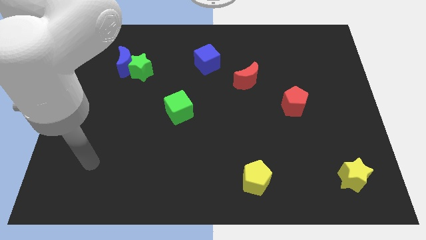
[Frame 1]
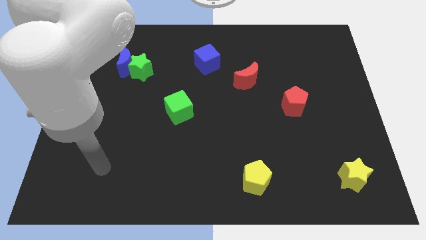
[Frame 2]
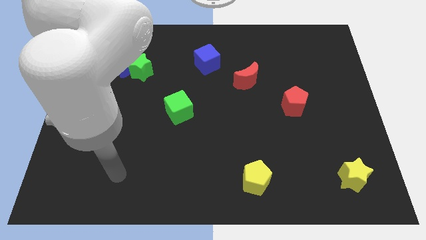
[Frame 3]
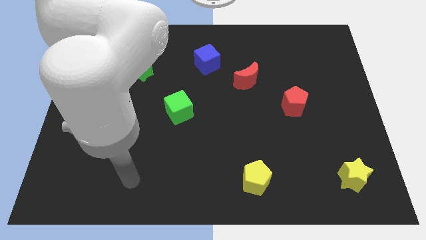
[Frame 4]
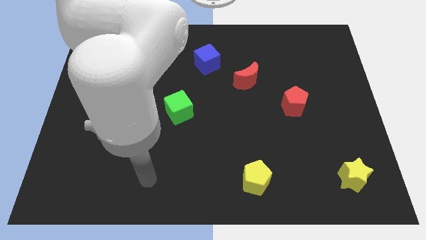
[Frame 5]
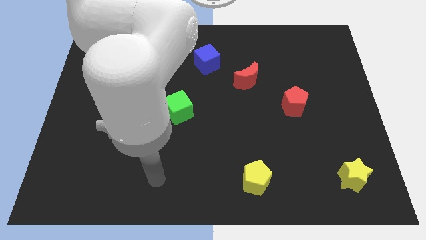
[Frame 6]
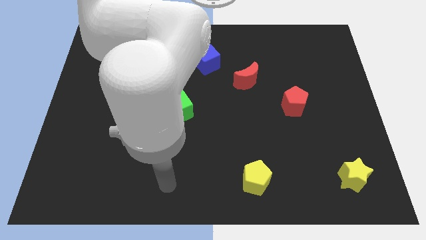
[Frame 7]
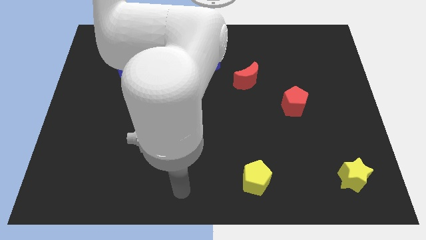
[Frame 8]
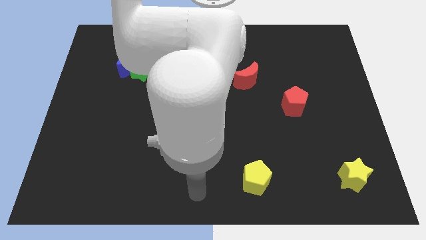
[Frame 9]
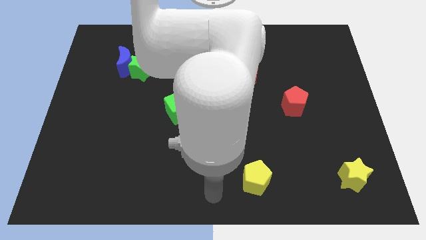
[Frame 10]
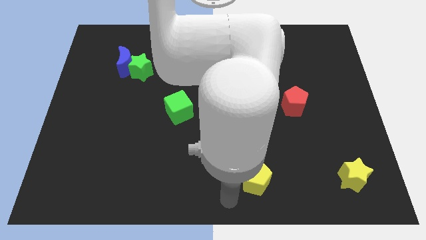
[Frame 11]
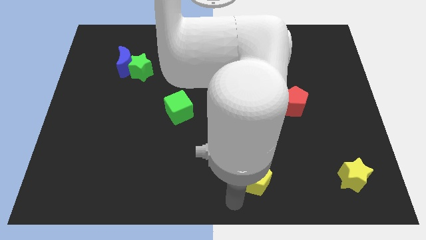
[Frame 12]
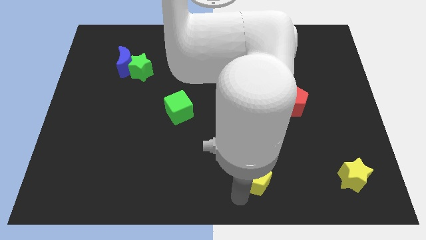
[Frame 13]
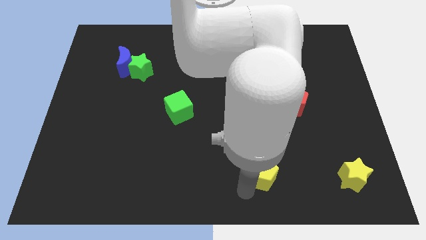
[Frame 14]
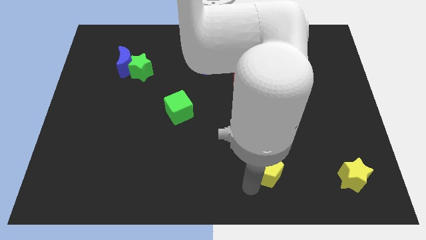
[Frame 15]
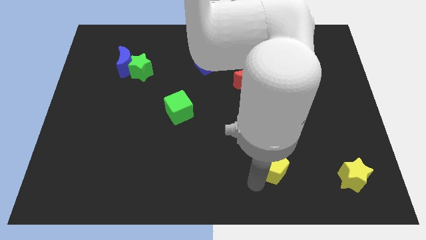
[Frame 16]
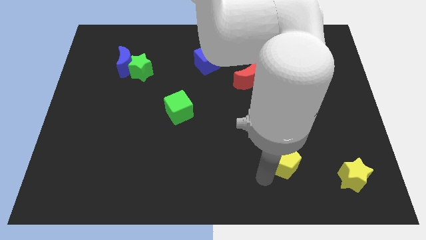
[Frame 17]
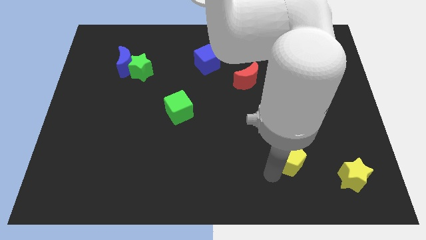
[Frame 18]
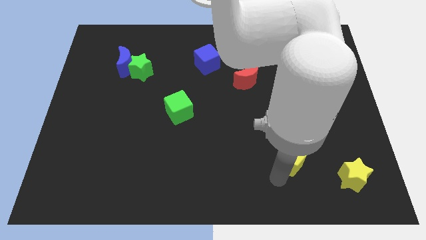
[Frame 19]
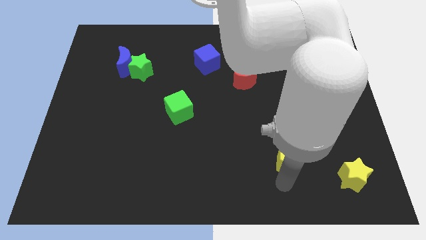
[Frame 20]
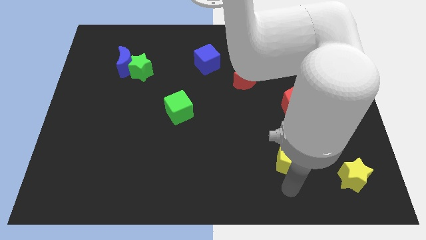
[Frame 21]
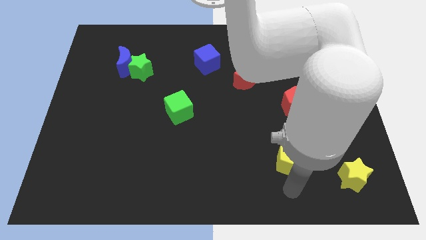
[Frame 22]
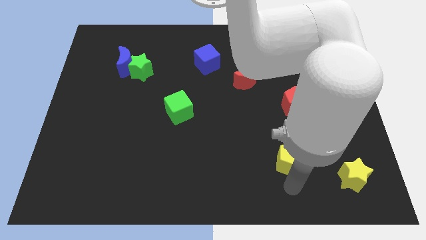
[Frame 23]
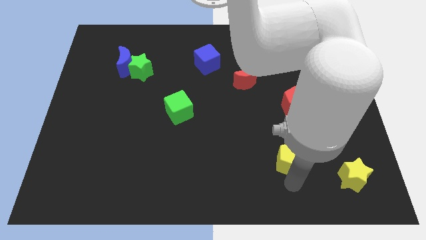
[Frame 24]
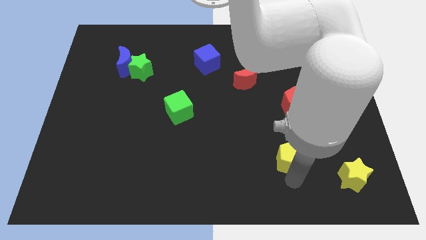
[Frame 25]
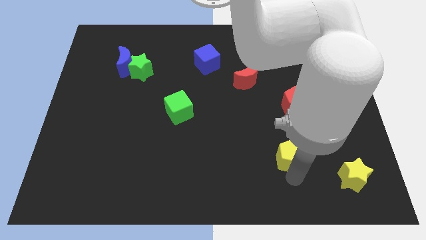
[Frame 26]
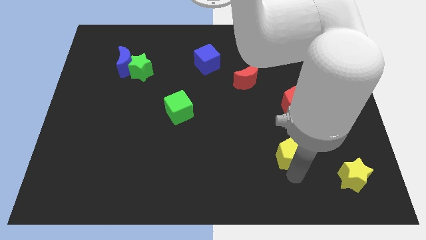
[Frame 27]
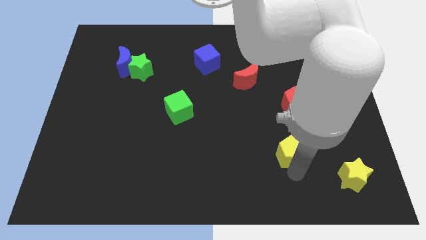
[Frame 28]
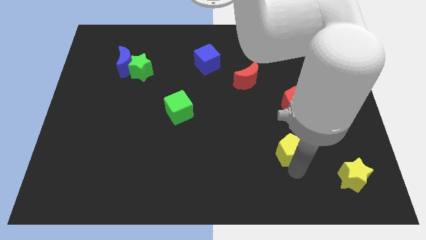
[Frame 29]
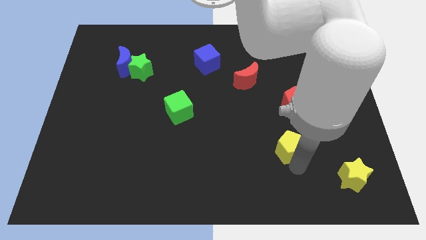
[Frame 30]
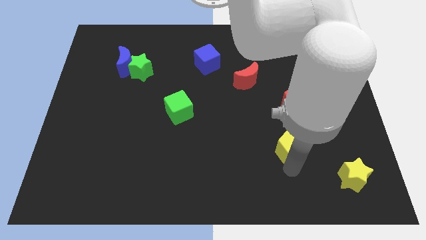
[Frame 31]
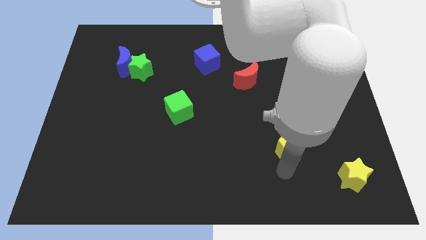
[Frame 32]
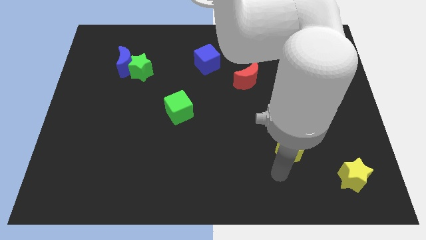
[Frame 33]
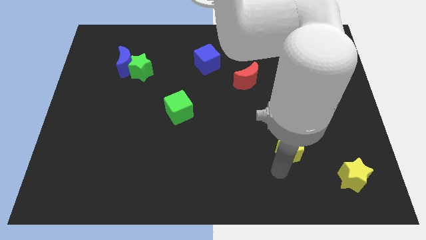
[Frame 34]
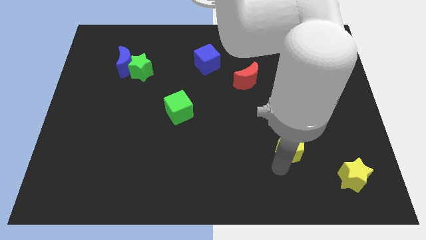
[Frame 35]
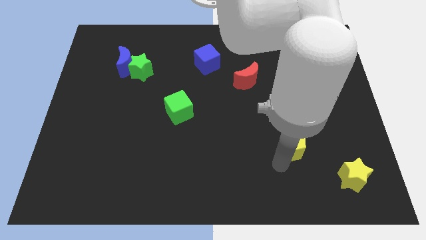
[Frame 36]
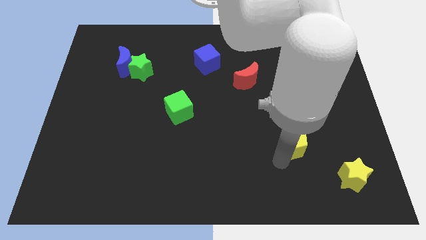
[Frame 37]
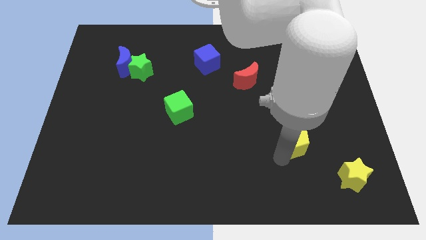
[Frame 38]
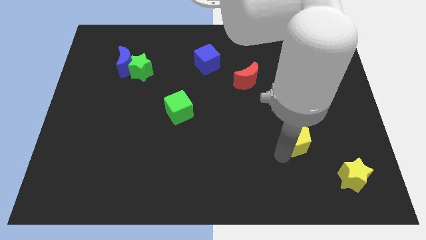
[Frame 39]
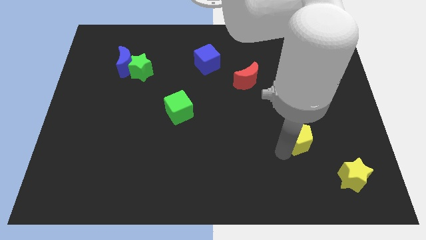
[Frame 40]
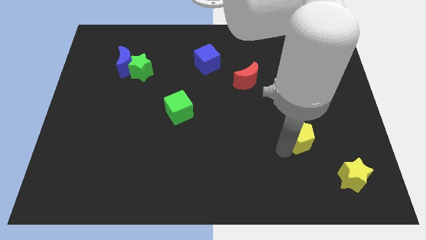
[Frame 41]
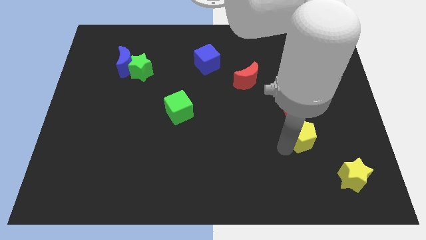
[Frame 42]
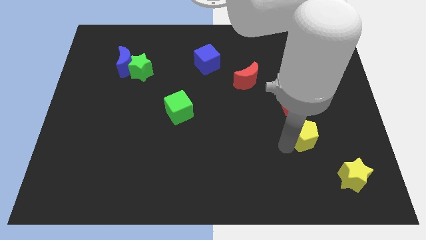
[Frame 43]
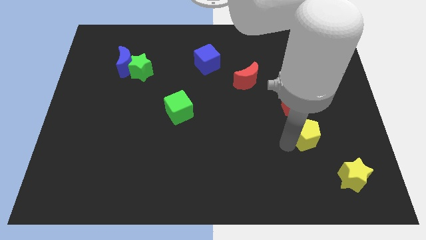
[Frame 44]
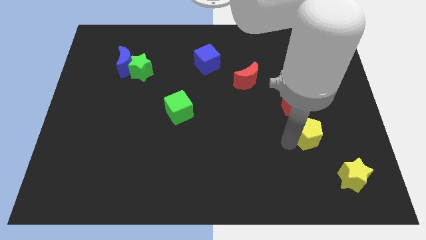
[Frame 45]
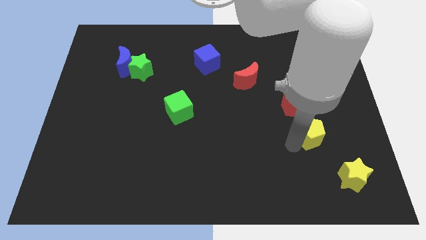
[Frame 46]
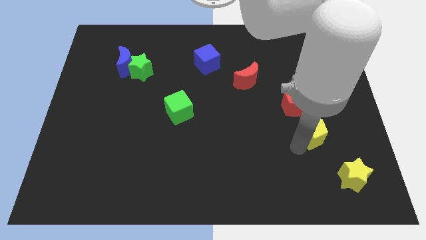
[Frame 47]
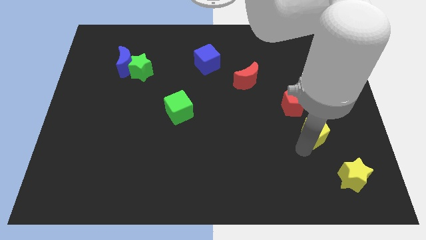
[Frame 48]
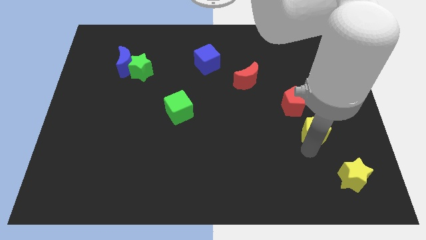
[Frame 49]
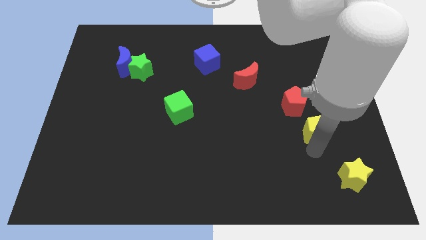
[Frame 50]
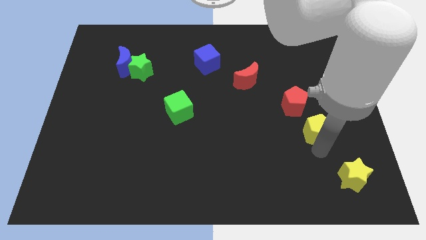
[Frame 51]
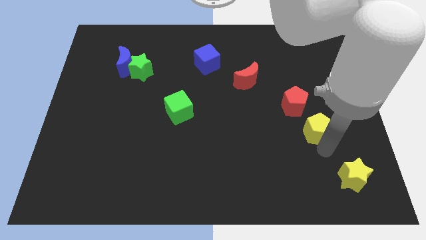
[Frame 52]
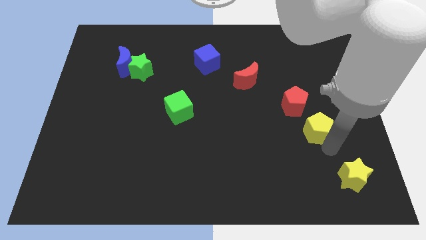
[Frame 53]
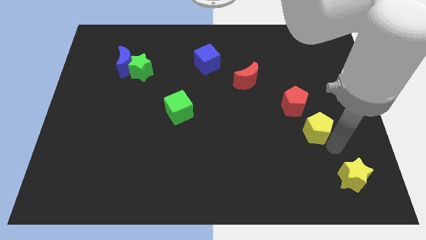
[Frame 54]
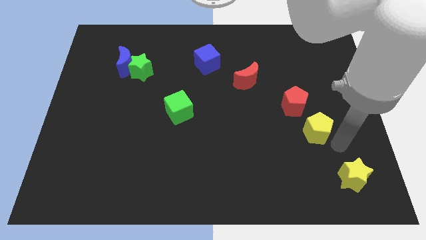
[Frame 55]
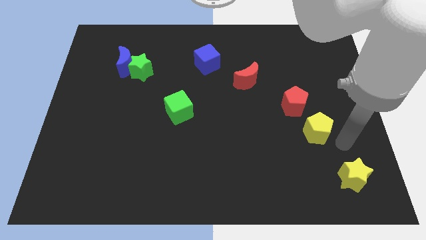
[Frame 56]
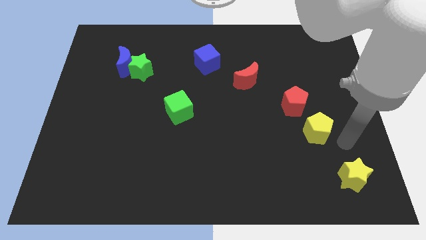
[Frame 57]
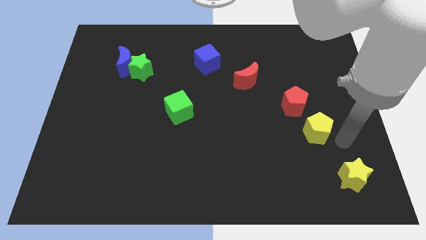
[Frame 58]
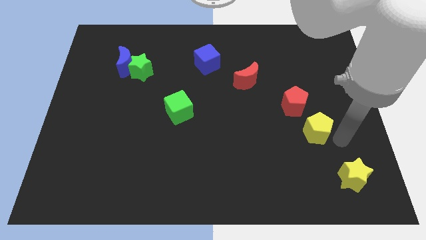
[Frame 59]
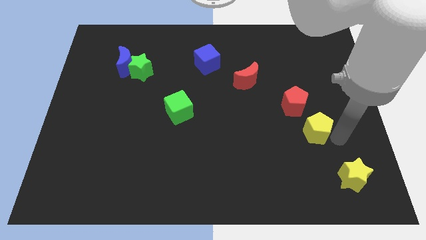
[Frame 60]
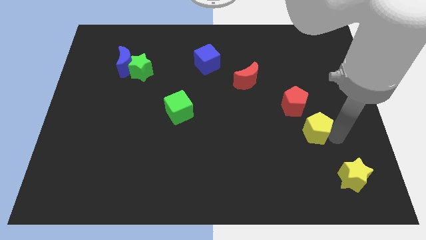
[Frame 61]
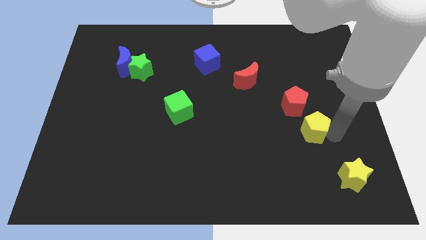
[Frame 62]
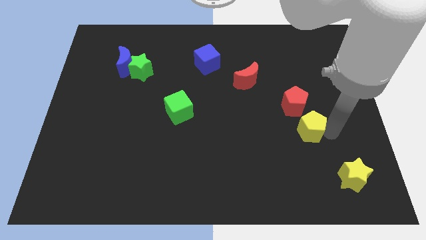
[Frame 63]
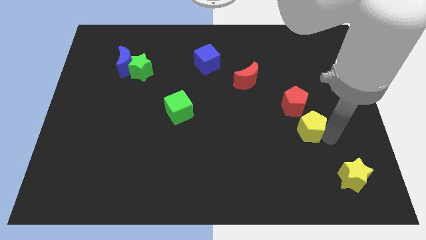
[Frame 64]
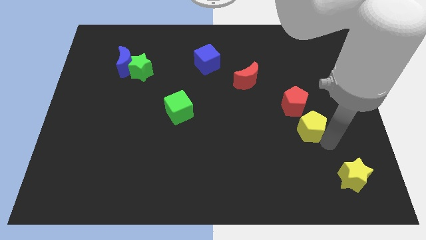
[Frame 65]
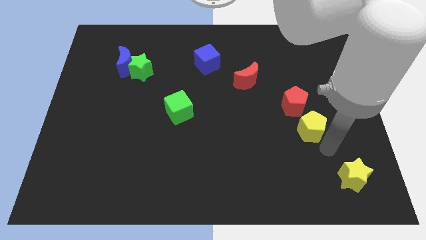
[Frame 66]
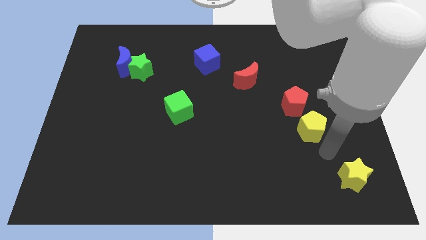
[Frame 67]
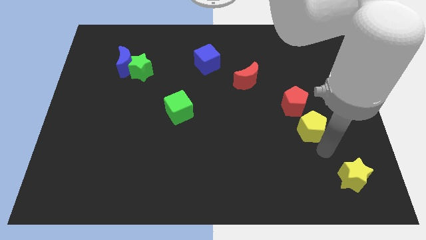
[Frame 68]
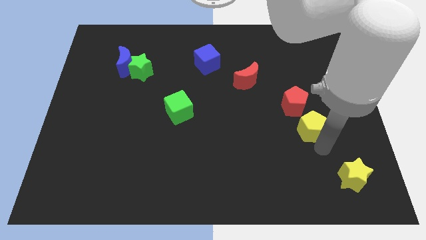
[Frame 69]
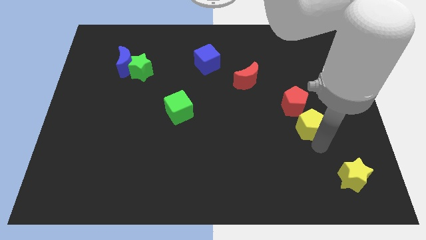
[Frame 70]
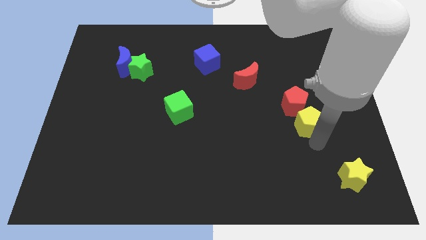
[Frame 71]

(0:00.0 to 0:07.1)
move the yellow pentagon towards the red pentagon
